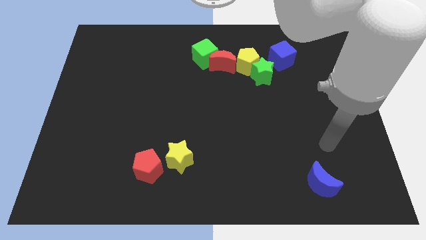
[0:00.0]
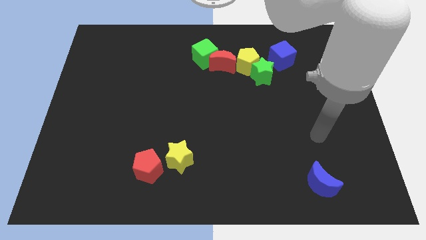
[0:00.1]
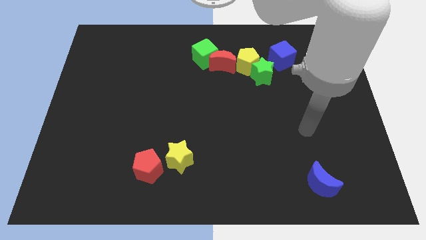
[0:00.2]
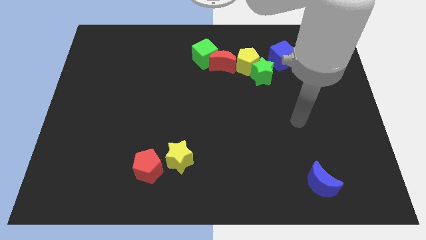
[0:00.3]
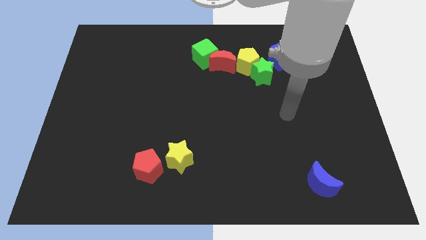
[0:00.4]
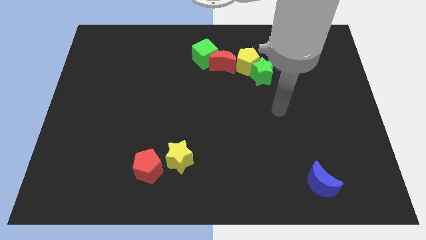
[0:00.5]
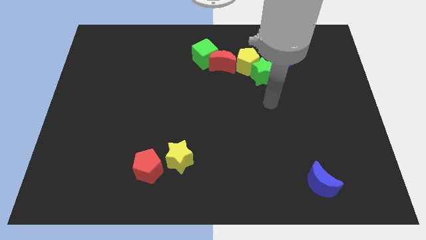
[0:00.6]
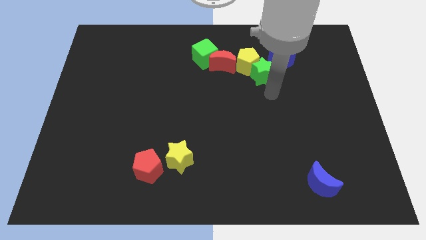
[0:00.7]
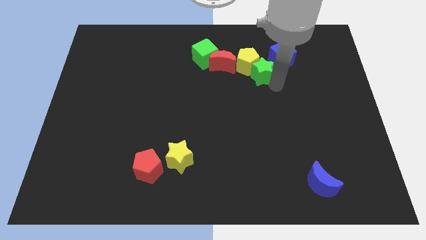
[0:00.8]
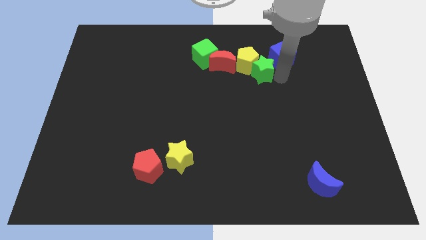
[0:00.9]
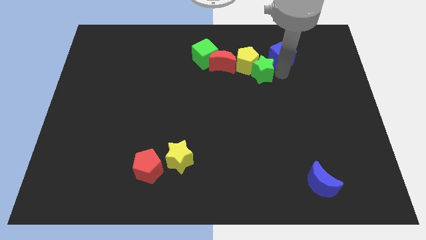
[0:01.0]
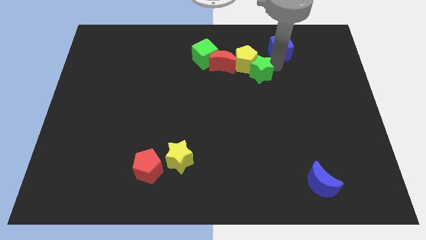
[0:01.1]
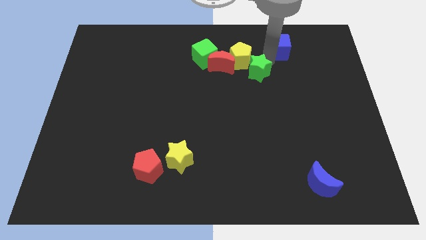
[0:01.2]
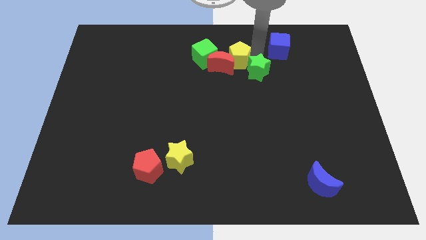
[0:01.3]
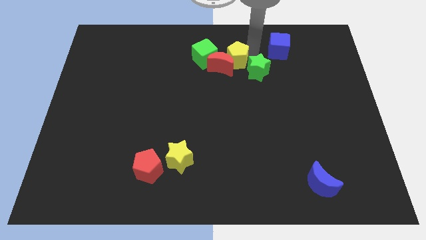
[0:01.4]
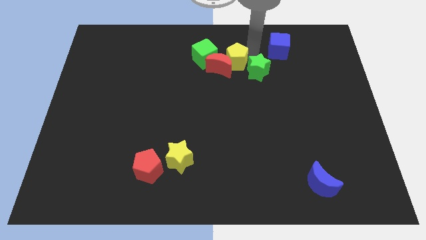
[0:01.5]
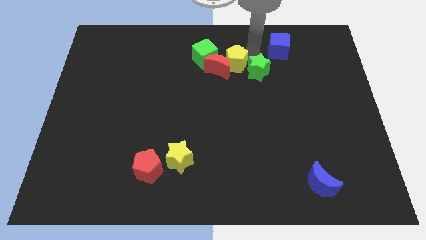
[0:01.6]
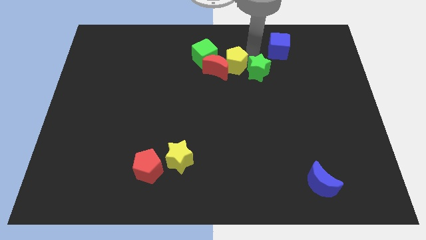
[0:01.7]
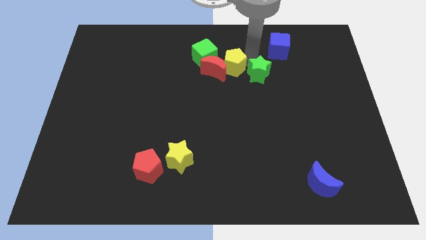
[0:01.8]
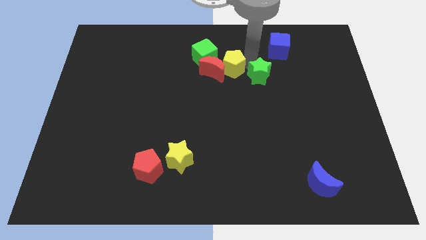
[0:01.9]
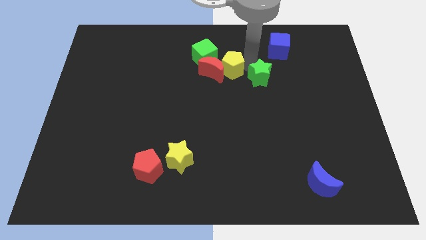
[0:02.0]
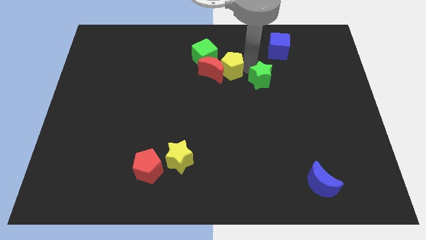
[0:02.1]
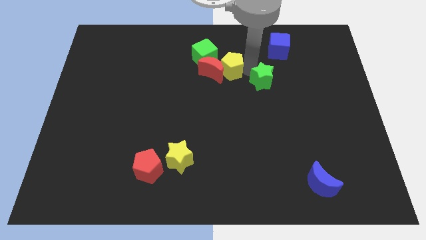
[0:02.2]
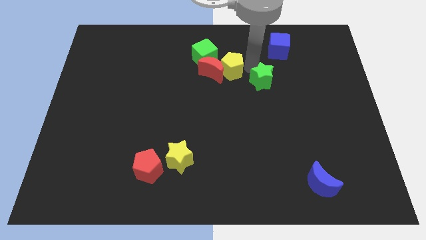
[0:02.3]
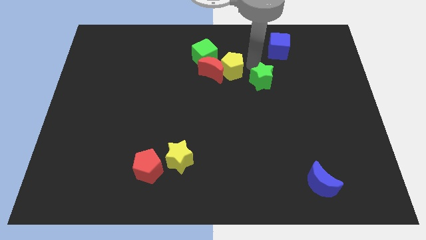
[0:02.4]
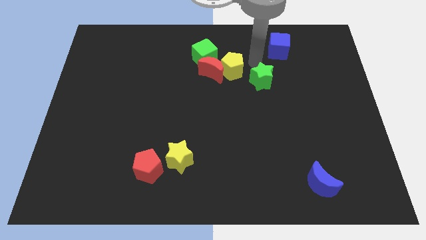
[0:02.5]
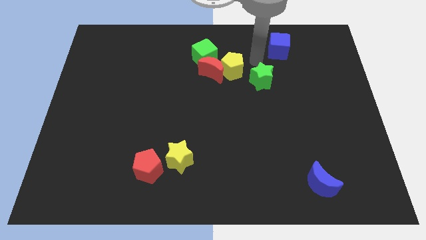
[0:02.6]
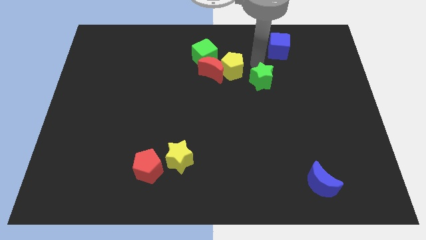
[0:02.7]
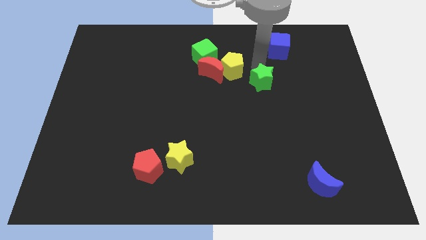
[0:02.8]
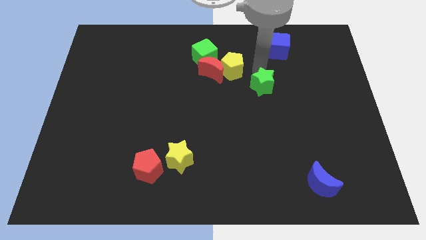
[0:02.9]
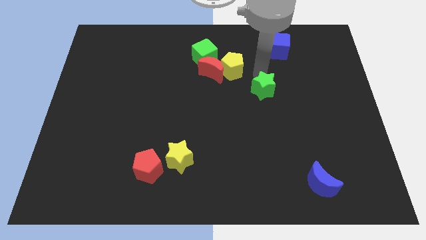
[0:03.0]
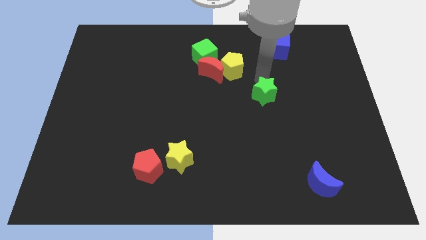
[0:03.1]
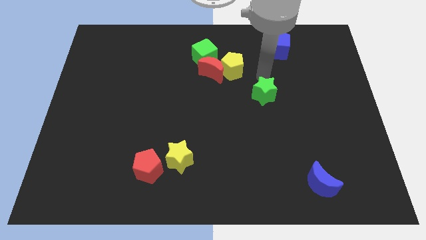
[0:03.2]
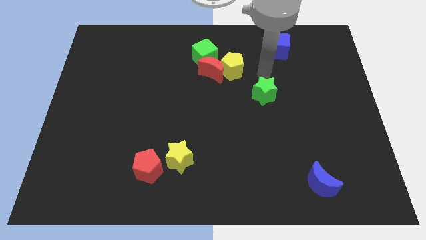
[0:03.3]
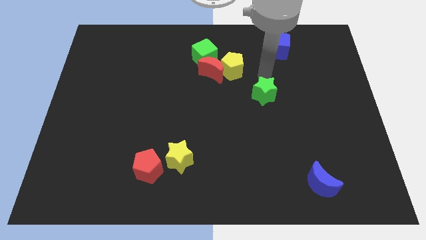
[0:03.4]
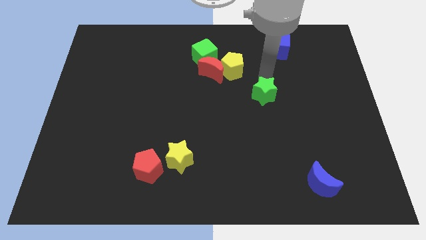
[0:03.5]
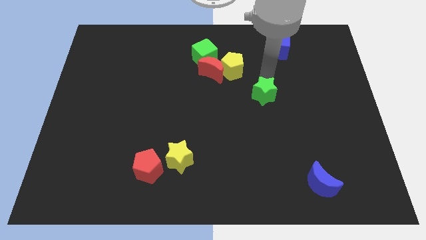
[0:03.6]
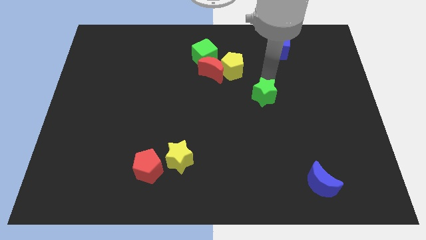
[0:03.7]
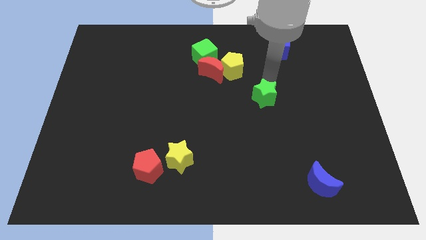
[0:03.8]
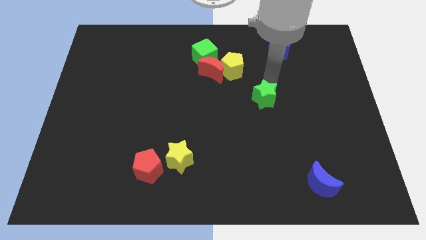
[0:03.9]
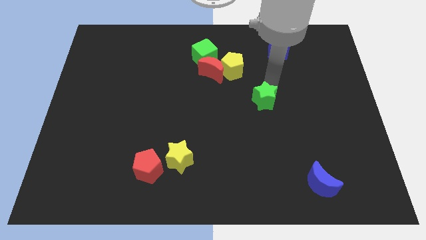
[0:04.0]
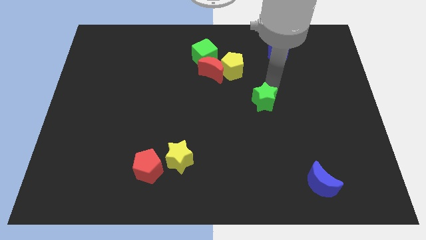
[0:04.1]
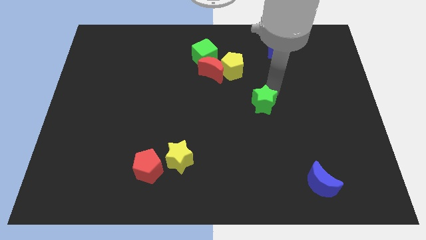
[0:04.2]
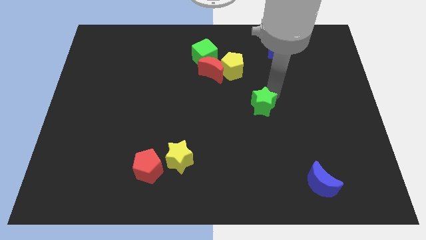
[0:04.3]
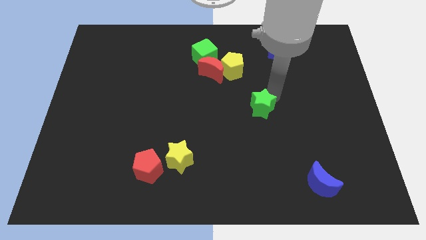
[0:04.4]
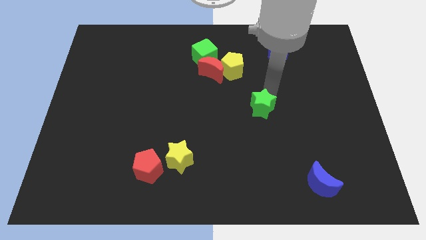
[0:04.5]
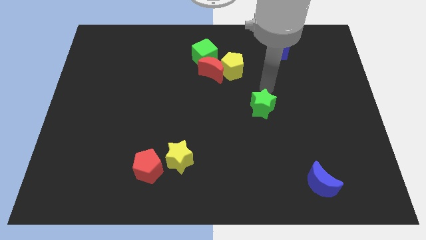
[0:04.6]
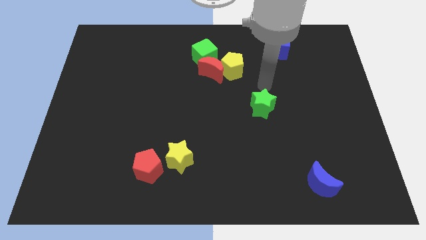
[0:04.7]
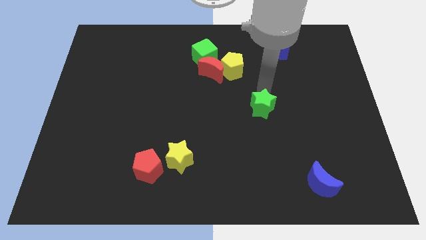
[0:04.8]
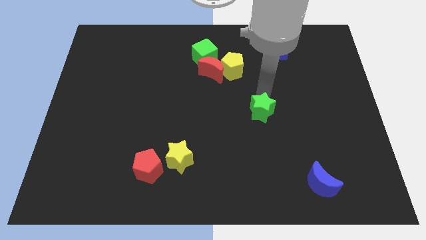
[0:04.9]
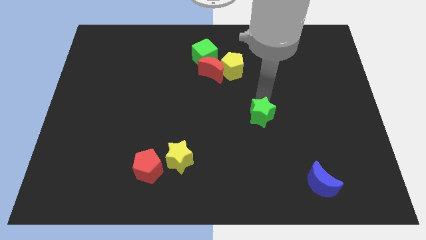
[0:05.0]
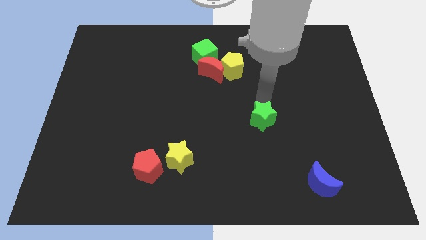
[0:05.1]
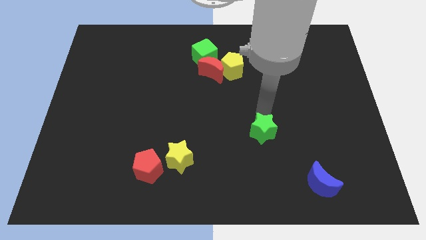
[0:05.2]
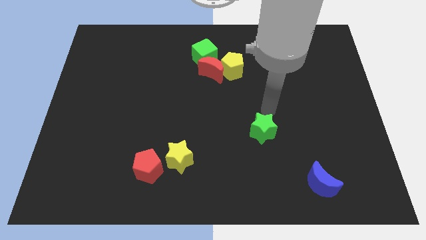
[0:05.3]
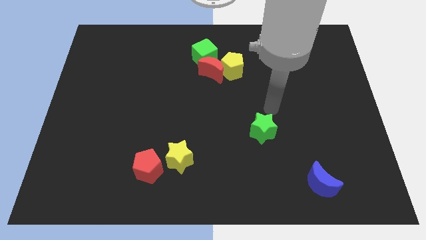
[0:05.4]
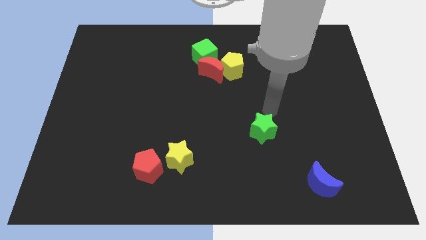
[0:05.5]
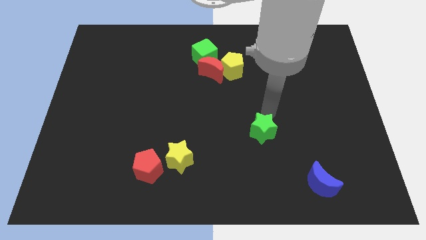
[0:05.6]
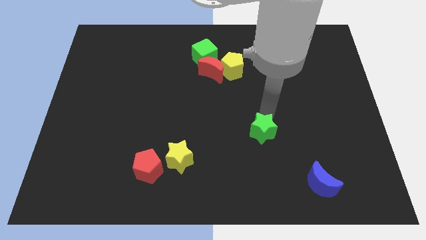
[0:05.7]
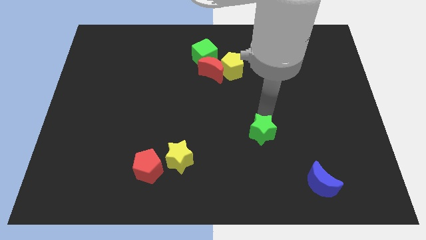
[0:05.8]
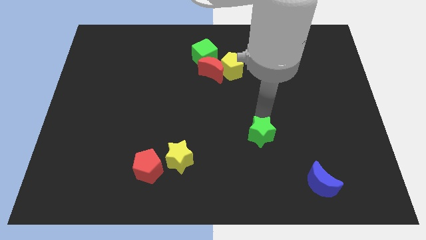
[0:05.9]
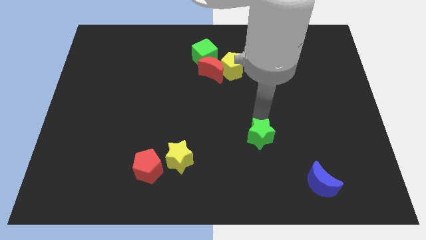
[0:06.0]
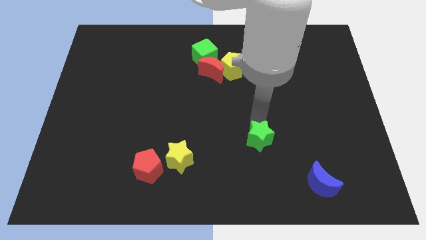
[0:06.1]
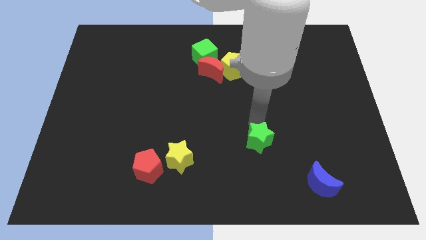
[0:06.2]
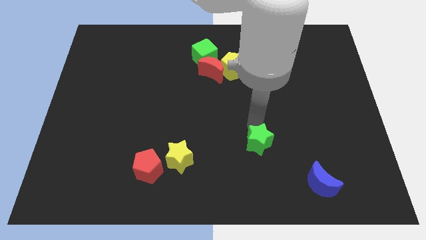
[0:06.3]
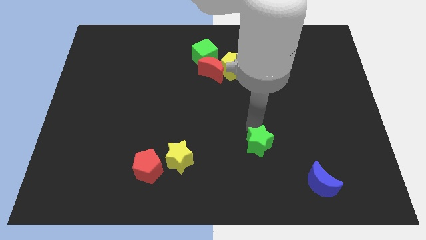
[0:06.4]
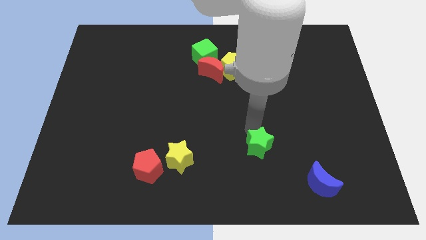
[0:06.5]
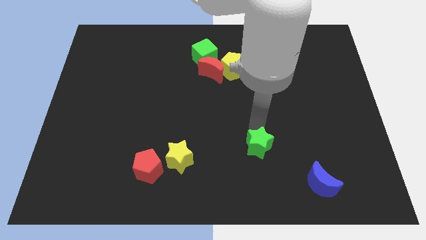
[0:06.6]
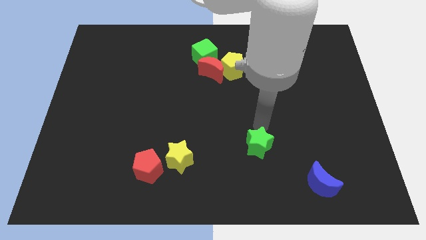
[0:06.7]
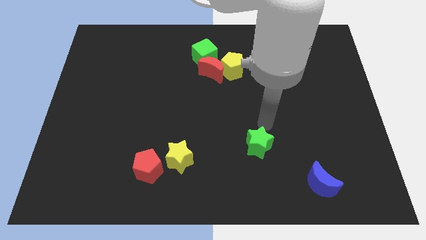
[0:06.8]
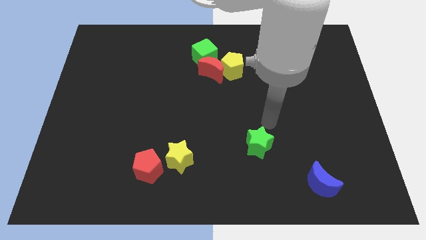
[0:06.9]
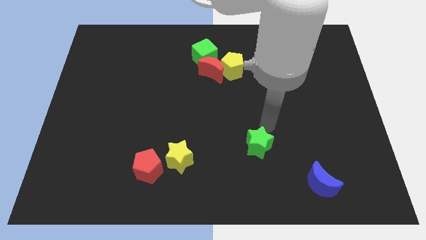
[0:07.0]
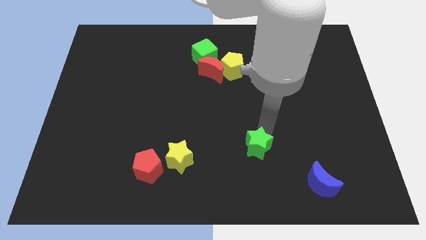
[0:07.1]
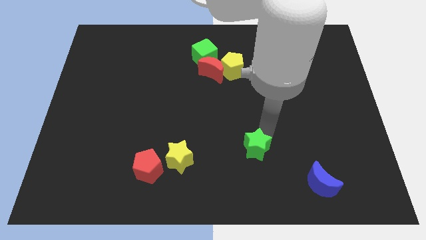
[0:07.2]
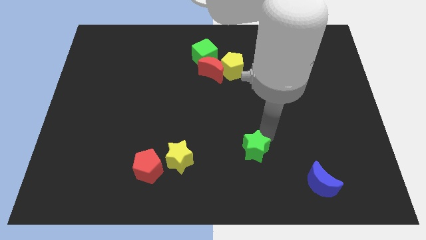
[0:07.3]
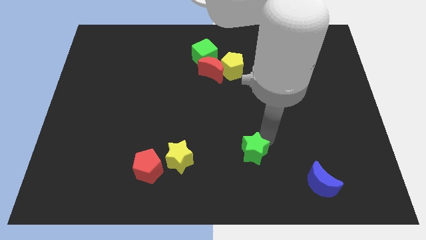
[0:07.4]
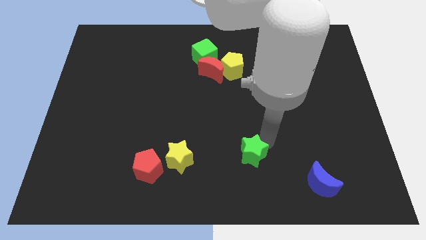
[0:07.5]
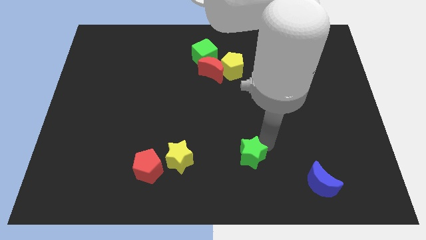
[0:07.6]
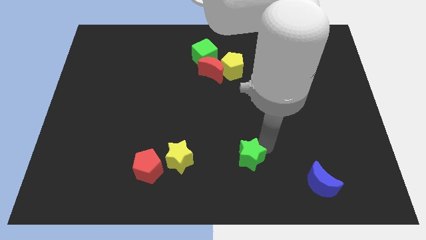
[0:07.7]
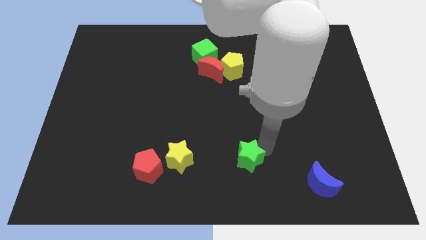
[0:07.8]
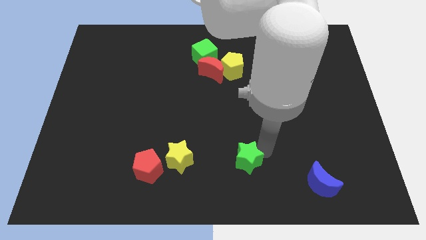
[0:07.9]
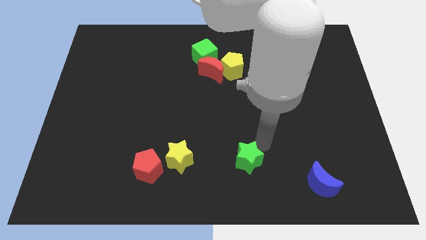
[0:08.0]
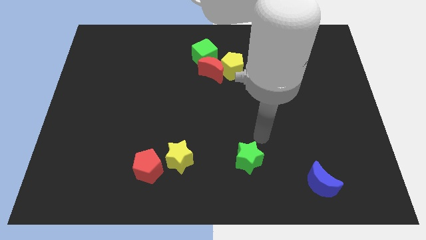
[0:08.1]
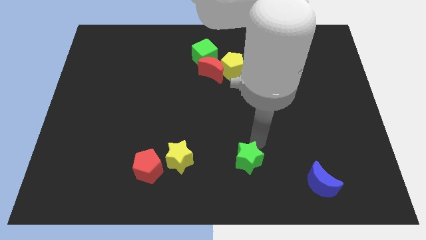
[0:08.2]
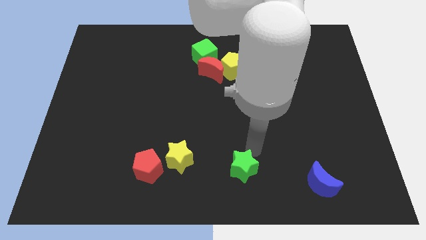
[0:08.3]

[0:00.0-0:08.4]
move the green star to the bottom side
